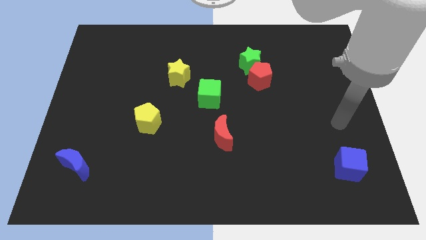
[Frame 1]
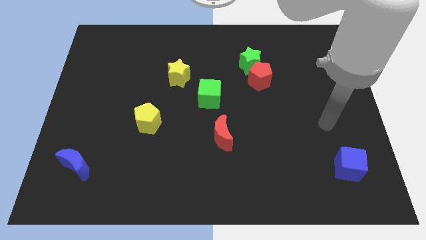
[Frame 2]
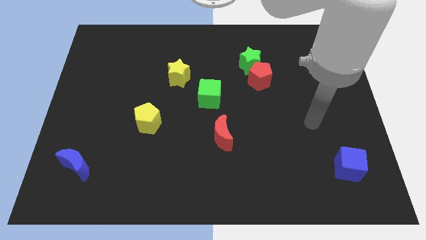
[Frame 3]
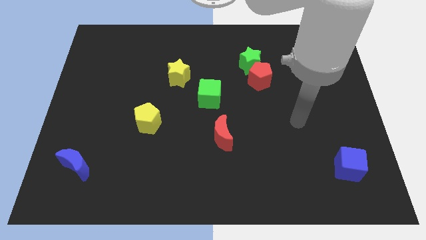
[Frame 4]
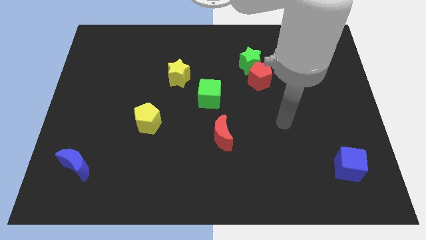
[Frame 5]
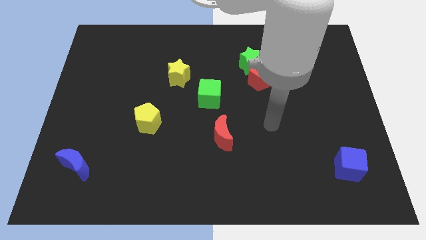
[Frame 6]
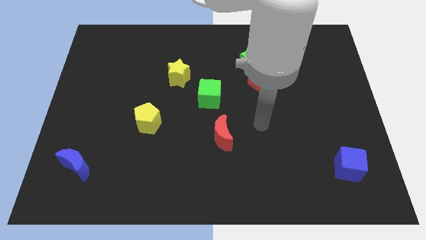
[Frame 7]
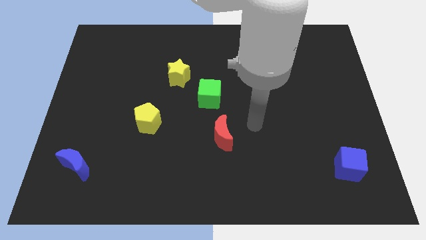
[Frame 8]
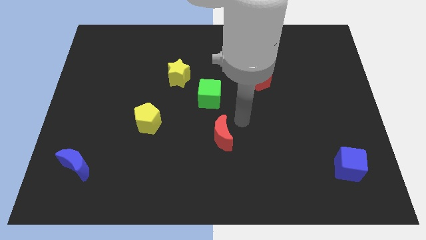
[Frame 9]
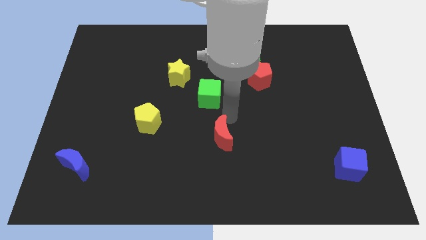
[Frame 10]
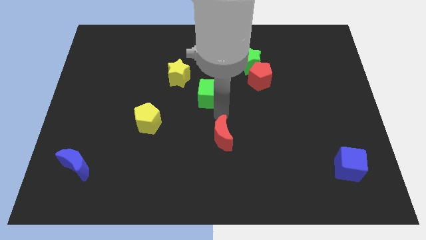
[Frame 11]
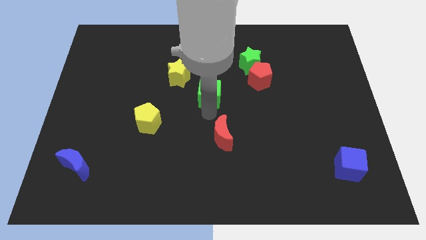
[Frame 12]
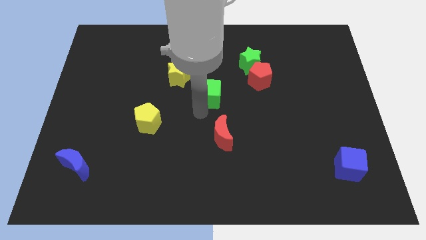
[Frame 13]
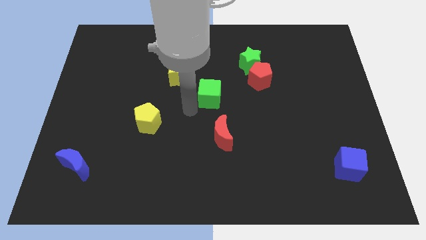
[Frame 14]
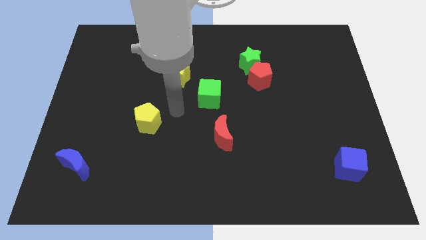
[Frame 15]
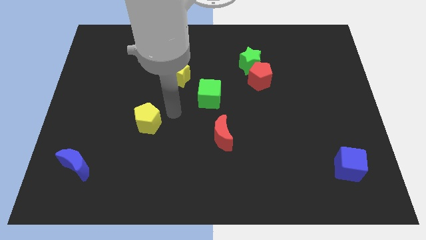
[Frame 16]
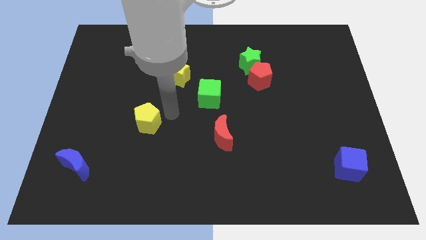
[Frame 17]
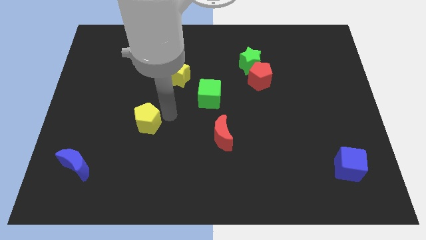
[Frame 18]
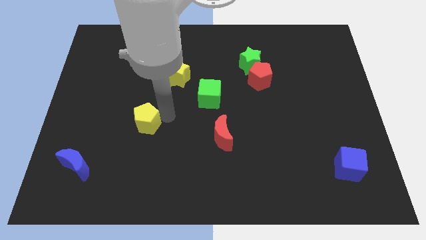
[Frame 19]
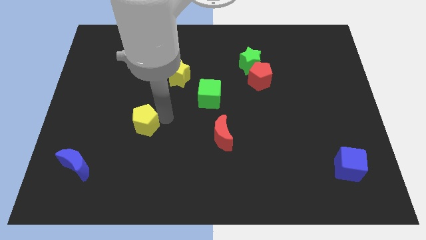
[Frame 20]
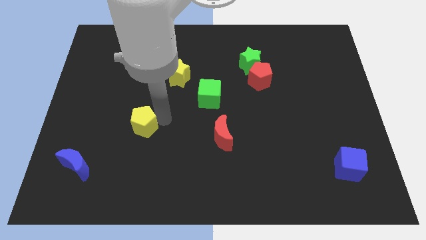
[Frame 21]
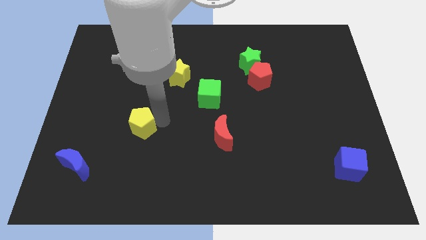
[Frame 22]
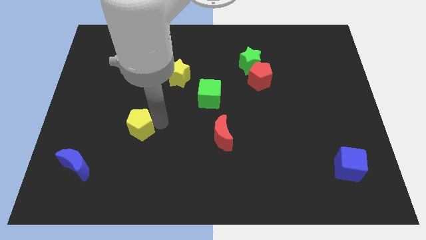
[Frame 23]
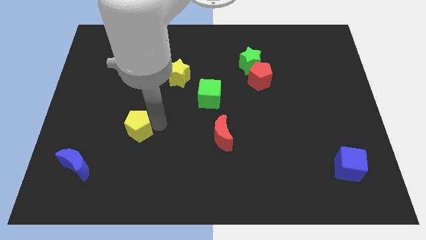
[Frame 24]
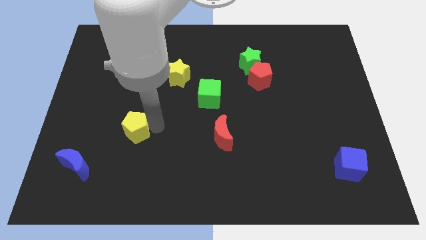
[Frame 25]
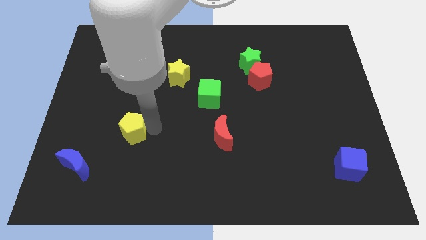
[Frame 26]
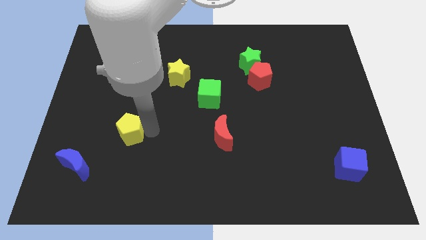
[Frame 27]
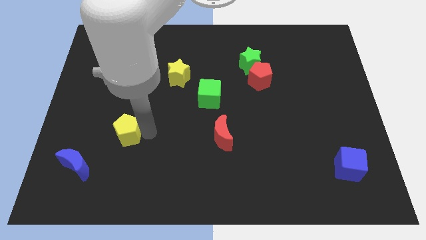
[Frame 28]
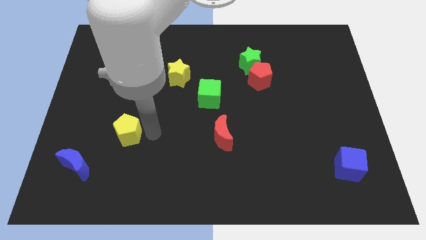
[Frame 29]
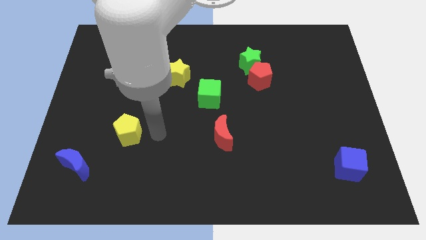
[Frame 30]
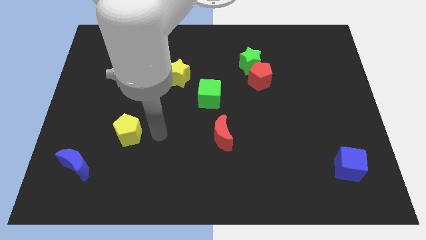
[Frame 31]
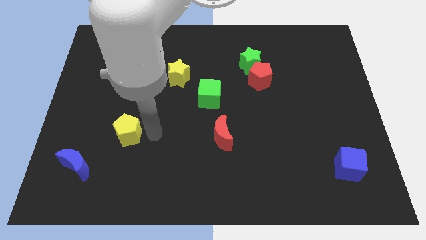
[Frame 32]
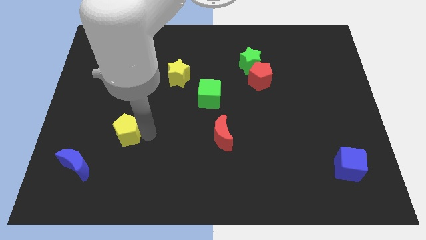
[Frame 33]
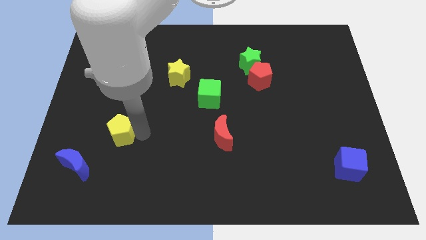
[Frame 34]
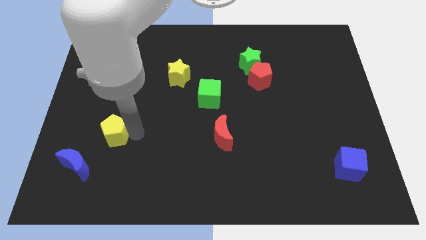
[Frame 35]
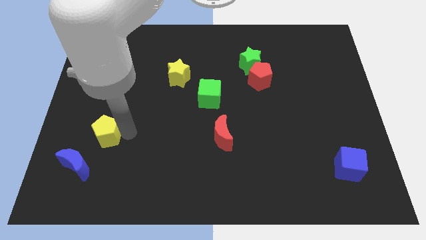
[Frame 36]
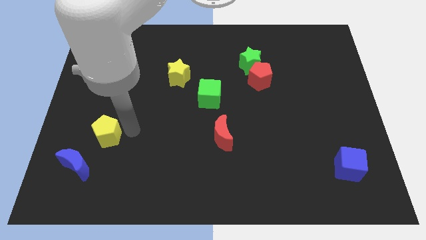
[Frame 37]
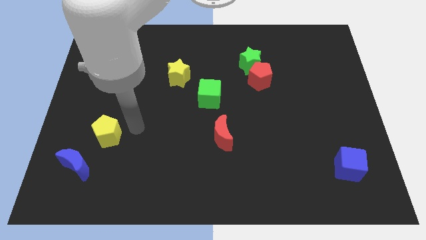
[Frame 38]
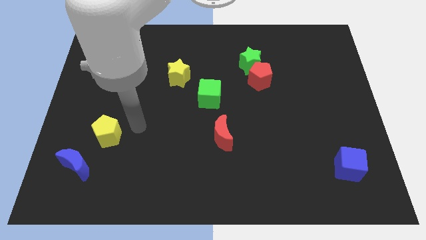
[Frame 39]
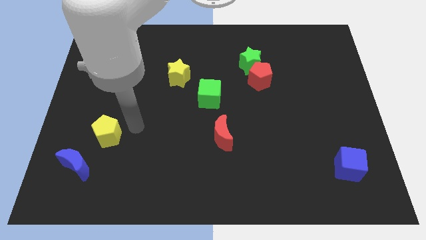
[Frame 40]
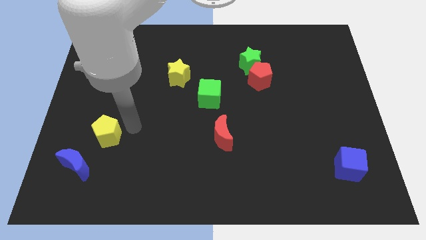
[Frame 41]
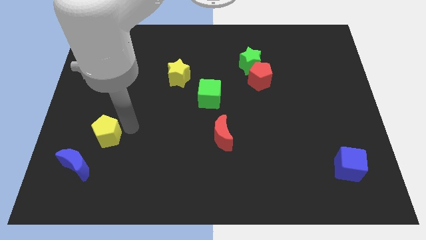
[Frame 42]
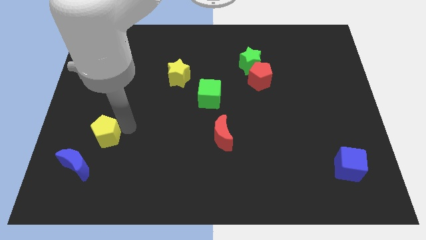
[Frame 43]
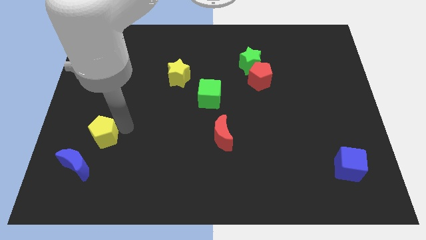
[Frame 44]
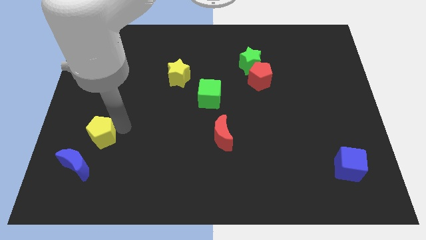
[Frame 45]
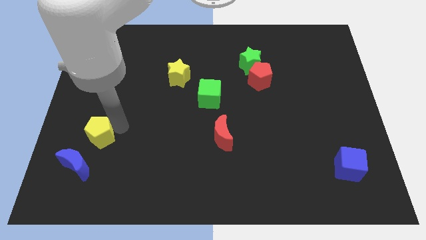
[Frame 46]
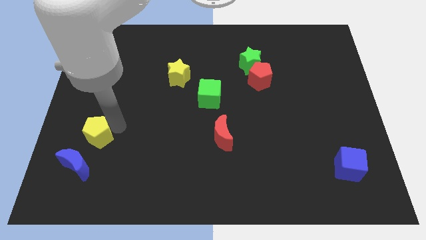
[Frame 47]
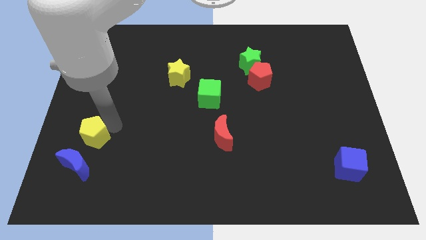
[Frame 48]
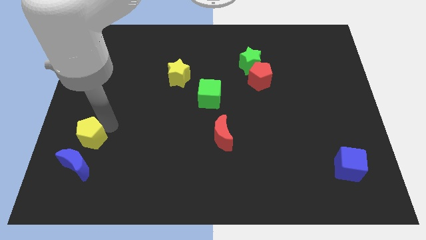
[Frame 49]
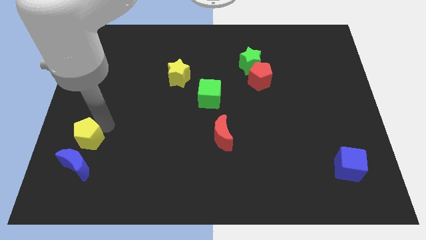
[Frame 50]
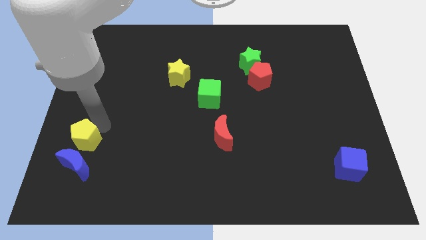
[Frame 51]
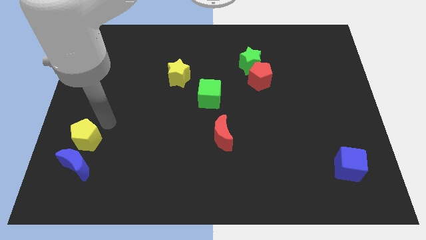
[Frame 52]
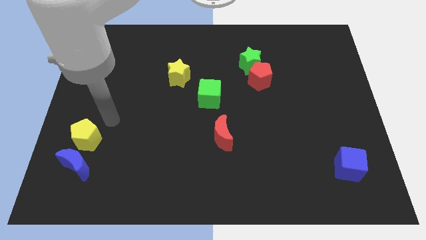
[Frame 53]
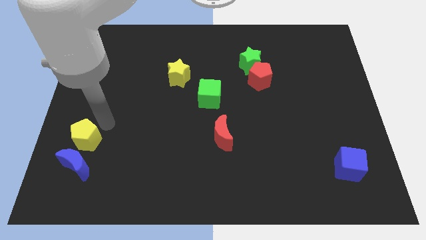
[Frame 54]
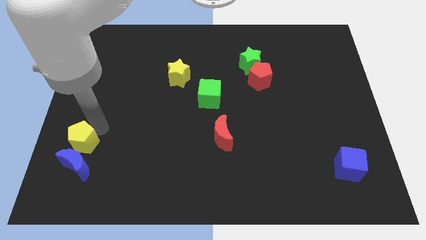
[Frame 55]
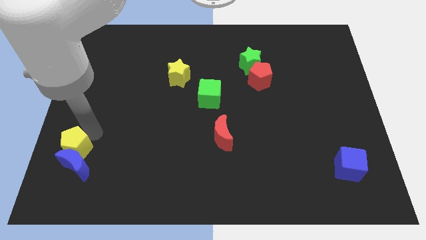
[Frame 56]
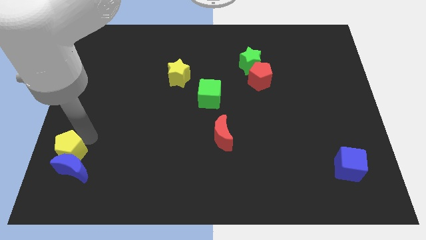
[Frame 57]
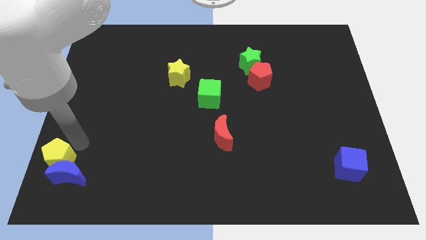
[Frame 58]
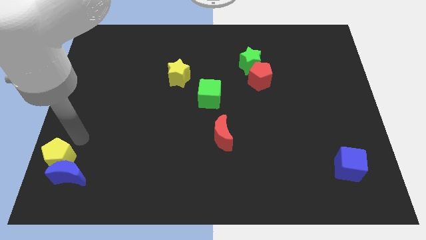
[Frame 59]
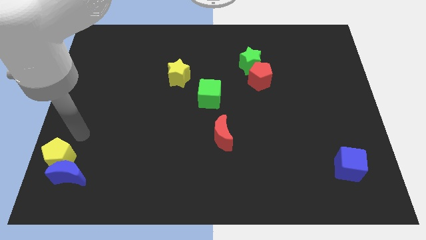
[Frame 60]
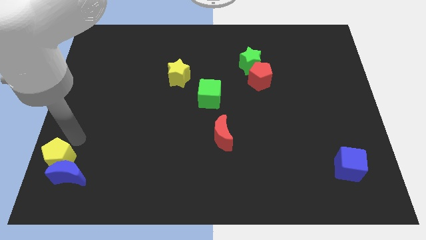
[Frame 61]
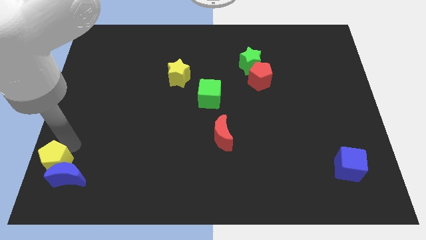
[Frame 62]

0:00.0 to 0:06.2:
put the yellow pentagon to the bottom left of the board

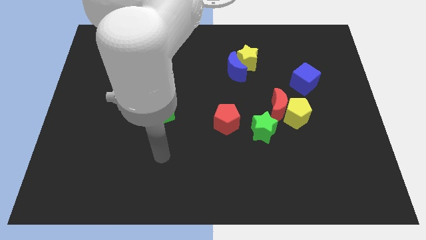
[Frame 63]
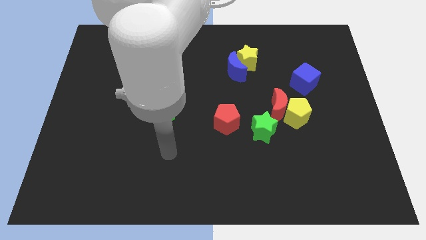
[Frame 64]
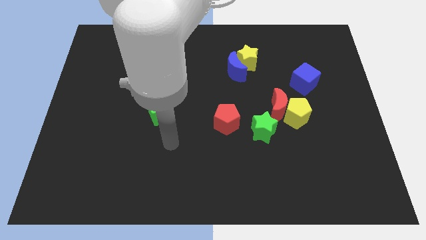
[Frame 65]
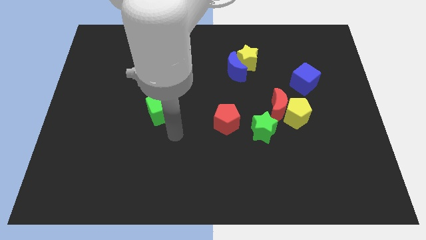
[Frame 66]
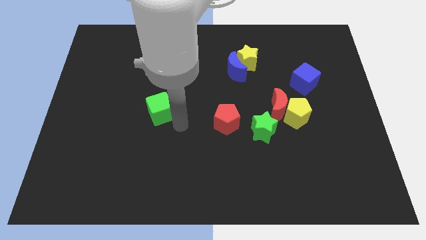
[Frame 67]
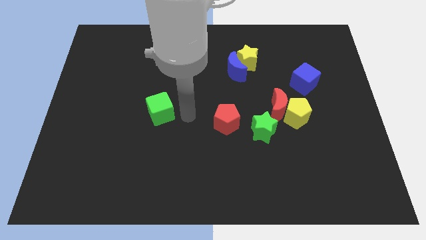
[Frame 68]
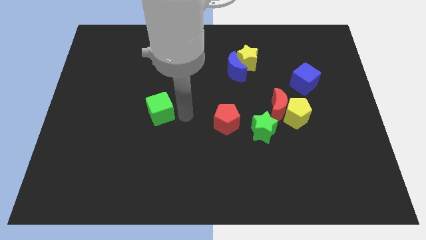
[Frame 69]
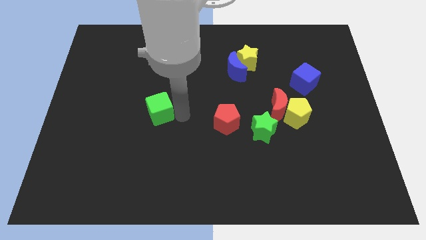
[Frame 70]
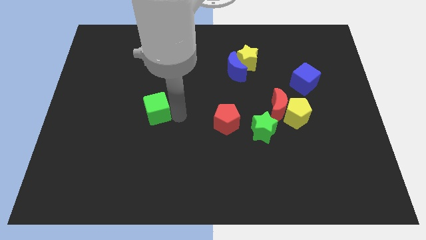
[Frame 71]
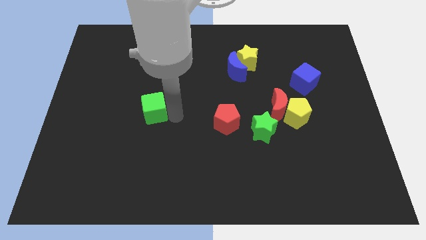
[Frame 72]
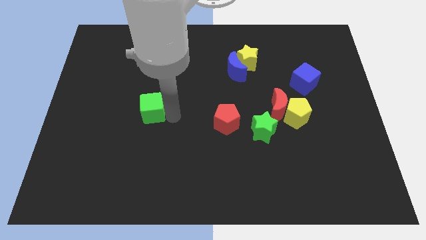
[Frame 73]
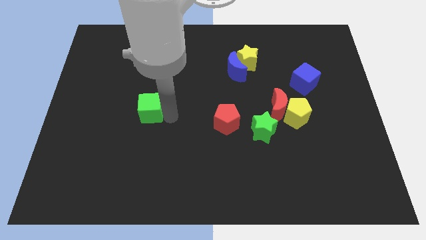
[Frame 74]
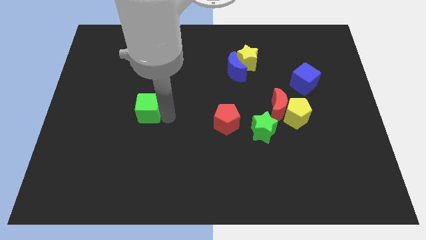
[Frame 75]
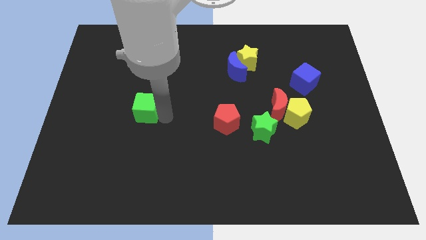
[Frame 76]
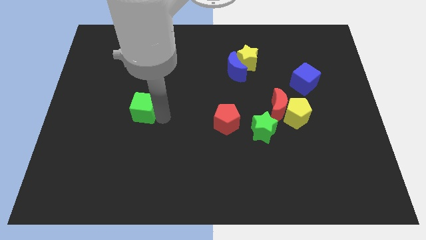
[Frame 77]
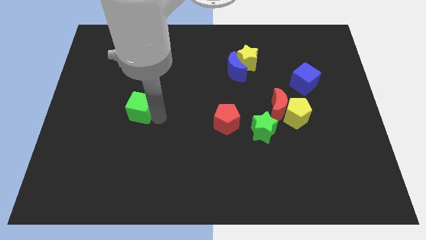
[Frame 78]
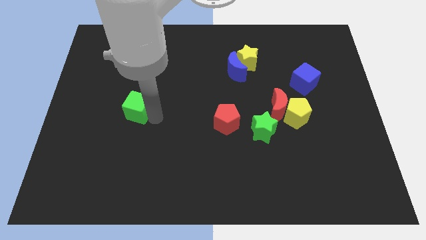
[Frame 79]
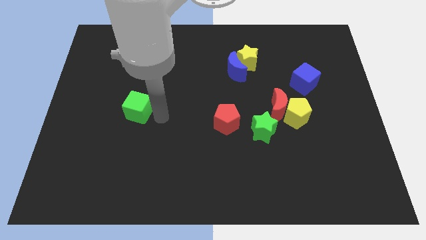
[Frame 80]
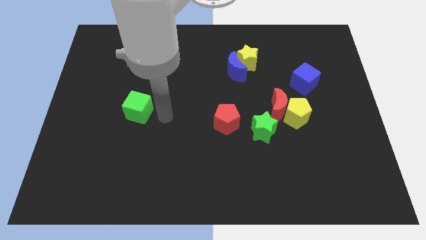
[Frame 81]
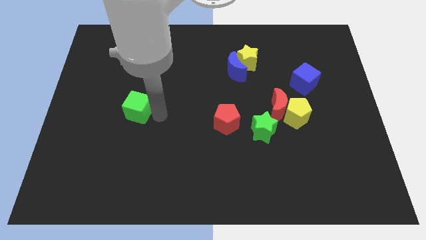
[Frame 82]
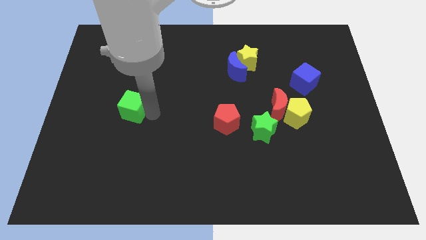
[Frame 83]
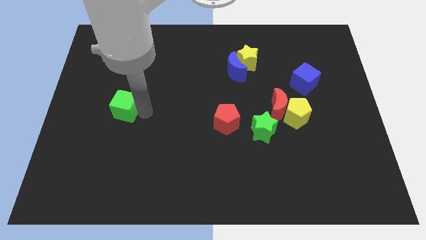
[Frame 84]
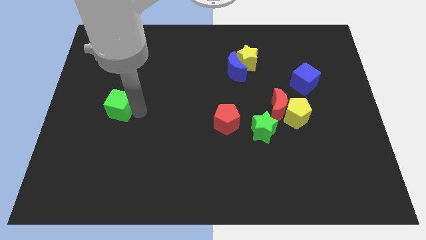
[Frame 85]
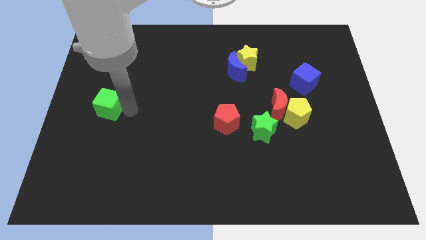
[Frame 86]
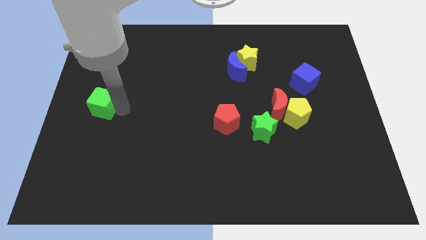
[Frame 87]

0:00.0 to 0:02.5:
slide the green cube to the left side
